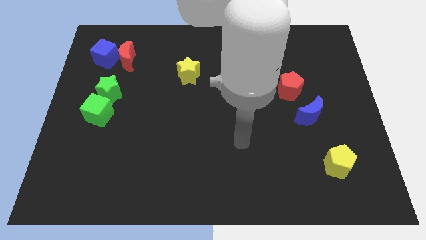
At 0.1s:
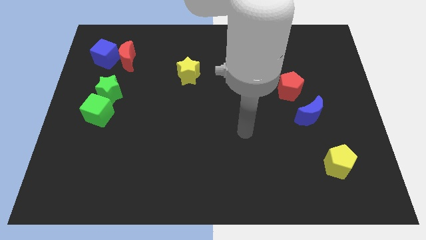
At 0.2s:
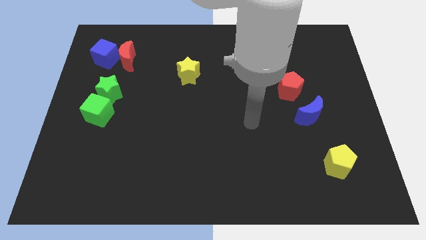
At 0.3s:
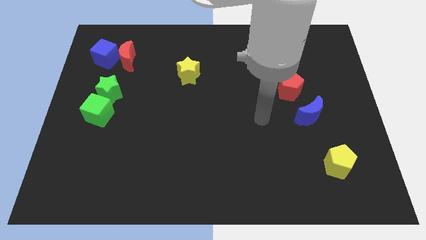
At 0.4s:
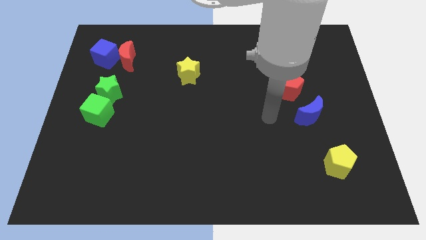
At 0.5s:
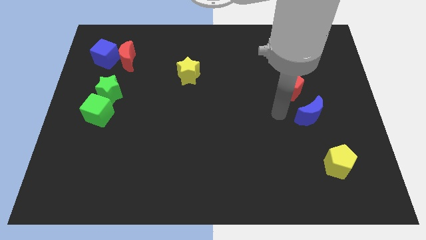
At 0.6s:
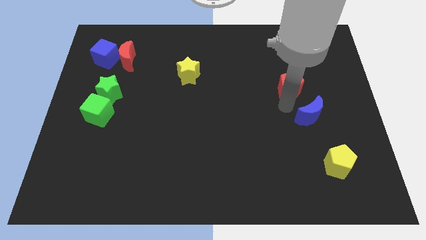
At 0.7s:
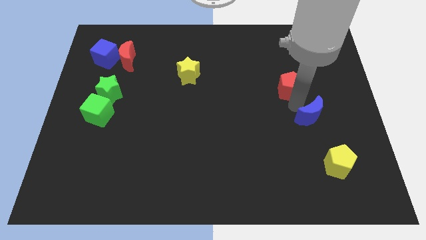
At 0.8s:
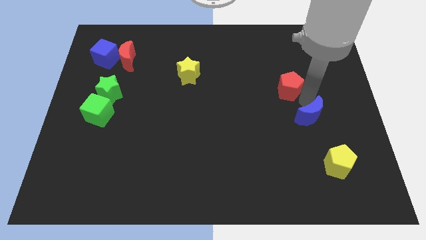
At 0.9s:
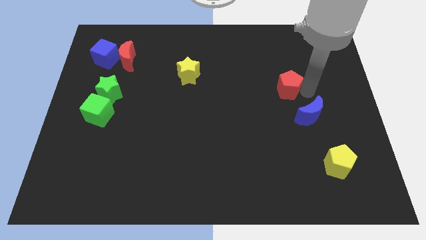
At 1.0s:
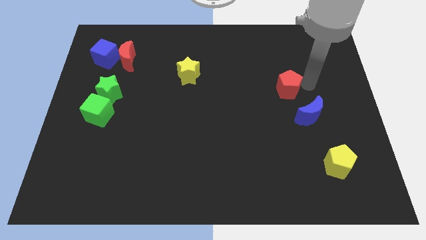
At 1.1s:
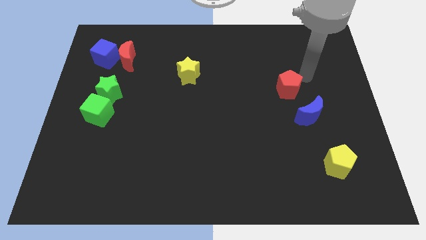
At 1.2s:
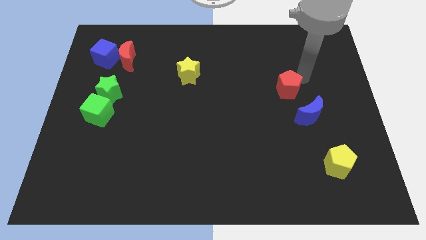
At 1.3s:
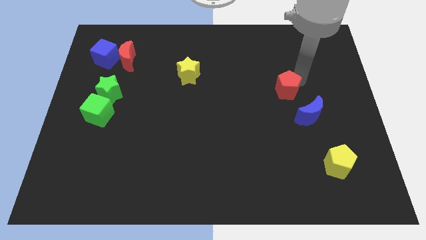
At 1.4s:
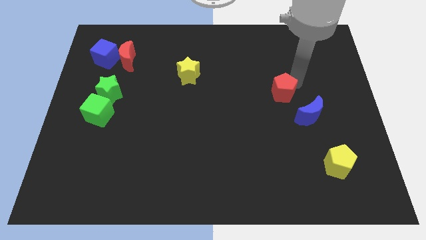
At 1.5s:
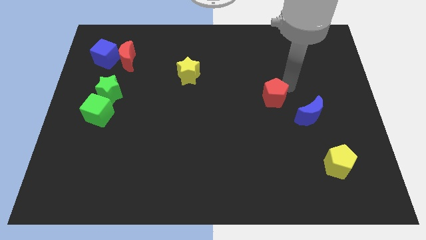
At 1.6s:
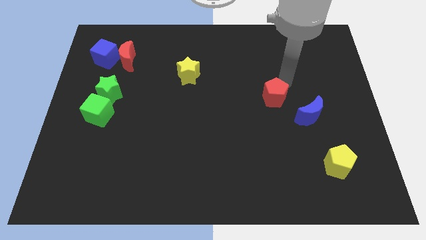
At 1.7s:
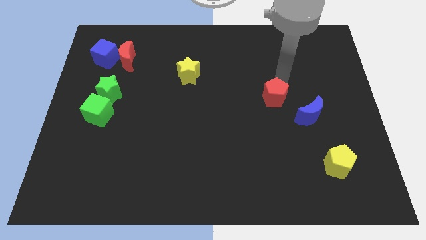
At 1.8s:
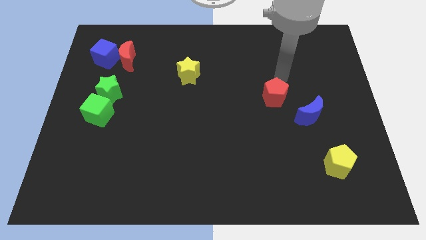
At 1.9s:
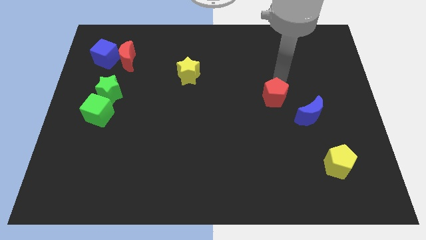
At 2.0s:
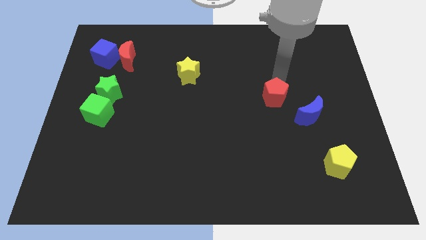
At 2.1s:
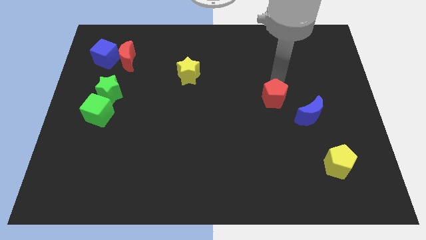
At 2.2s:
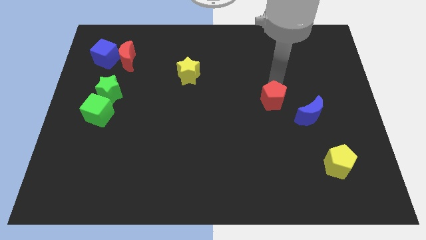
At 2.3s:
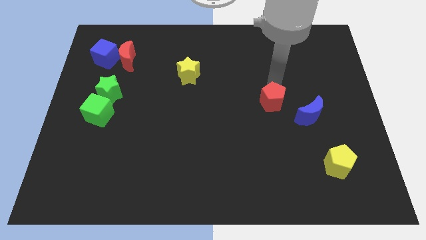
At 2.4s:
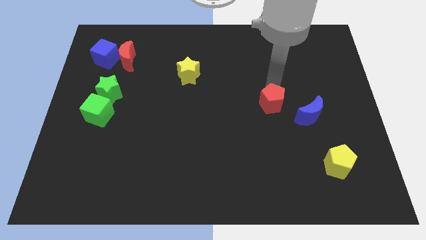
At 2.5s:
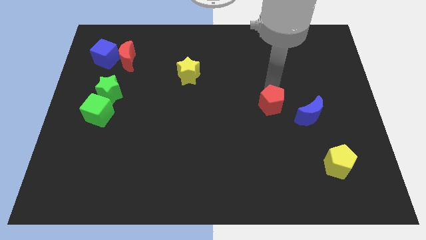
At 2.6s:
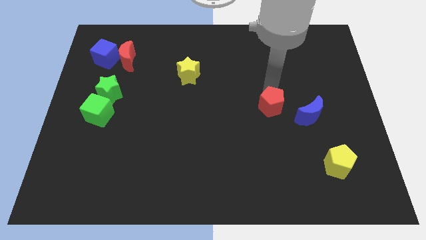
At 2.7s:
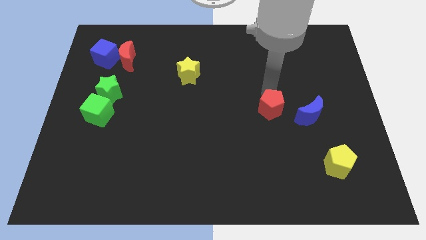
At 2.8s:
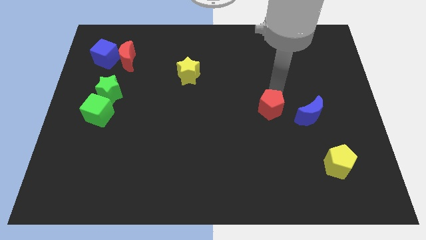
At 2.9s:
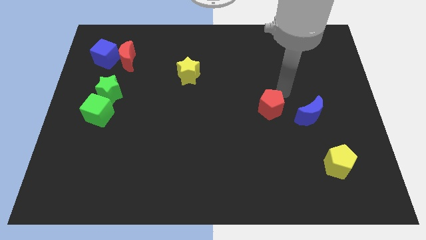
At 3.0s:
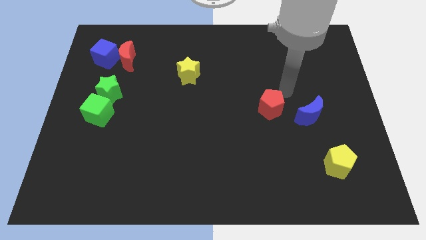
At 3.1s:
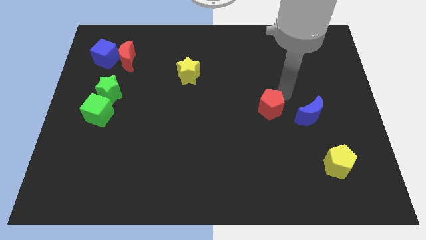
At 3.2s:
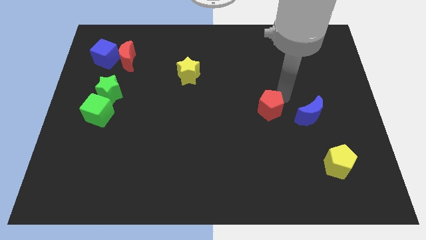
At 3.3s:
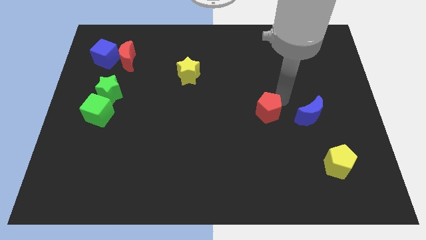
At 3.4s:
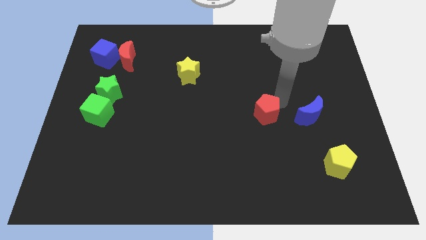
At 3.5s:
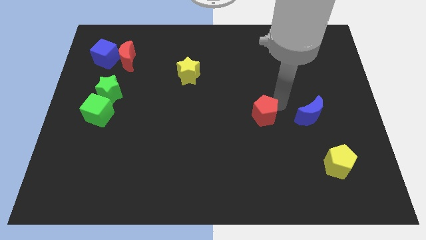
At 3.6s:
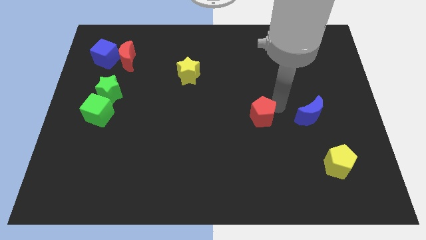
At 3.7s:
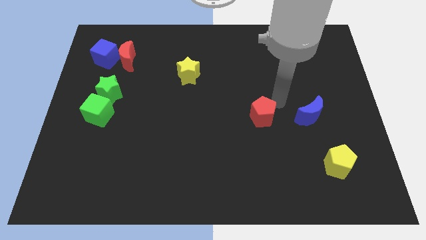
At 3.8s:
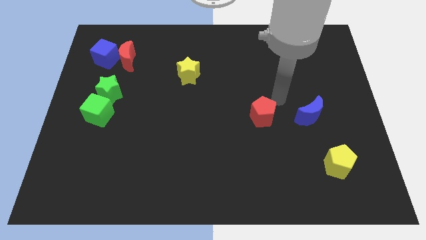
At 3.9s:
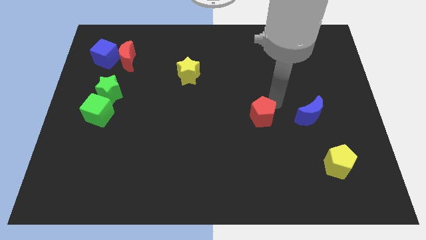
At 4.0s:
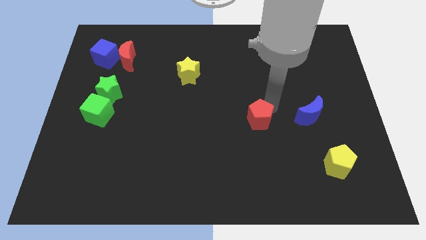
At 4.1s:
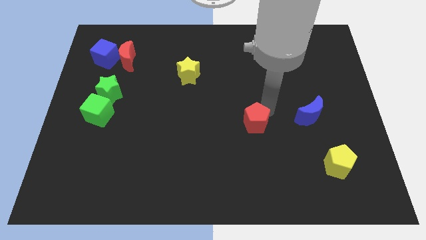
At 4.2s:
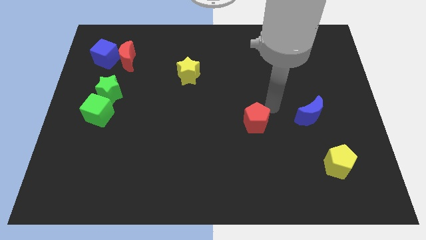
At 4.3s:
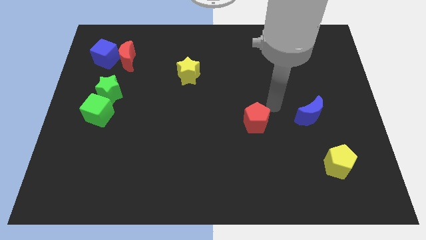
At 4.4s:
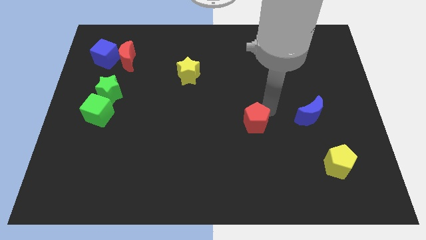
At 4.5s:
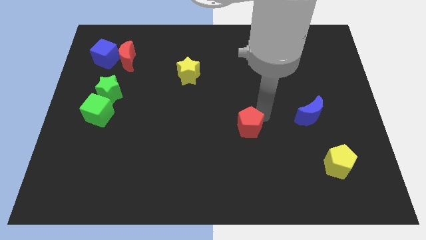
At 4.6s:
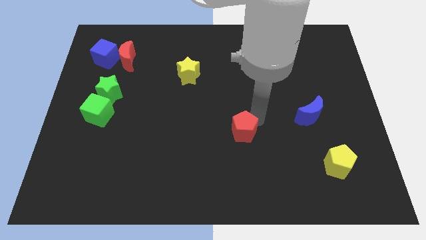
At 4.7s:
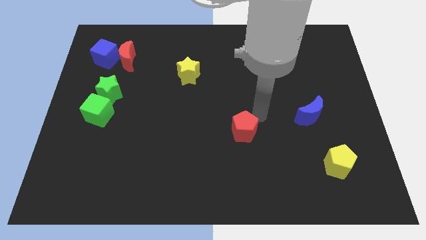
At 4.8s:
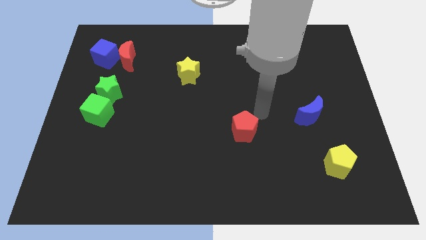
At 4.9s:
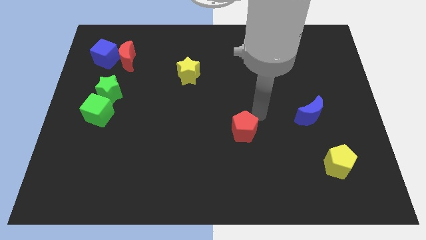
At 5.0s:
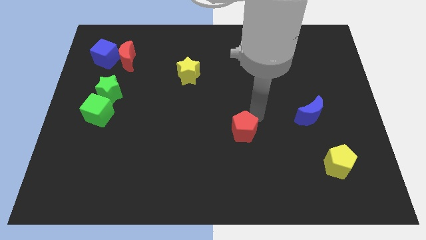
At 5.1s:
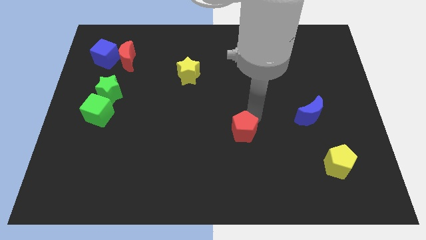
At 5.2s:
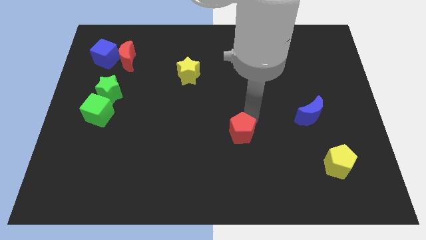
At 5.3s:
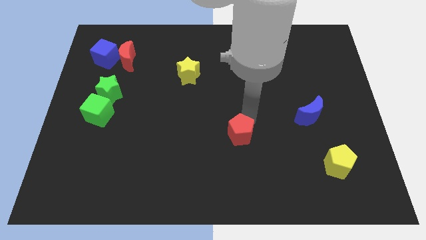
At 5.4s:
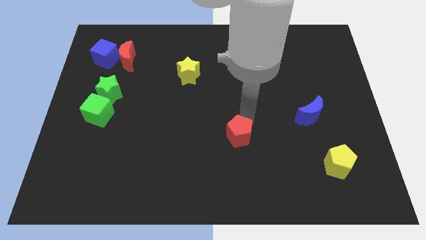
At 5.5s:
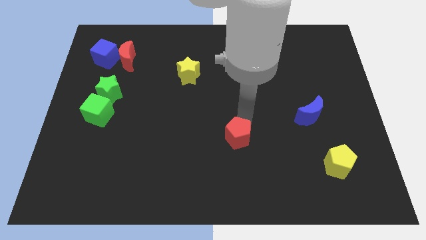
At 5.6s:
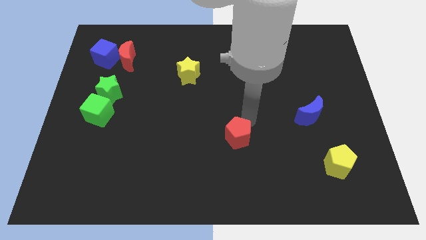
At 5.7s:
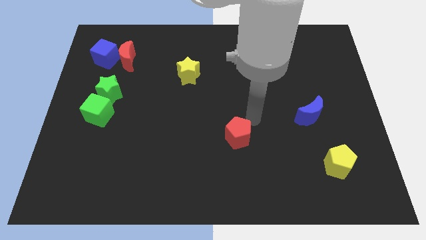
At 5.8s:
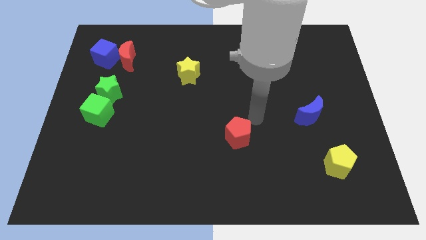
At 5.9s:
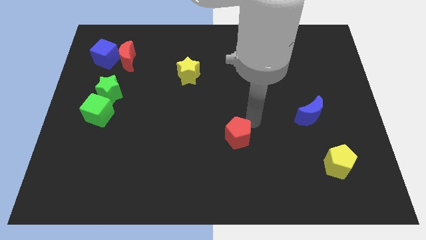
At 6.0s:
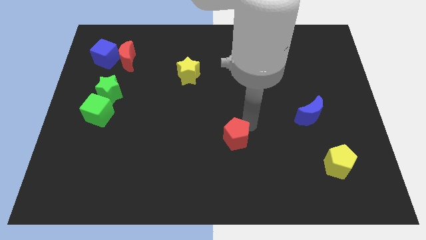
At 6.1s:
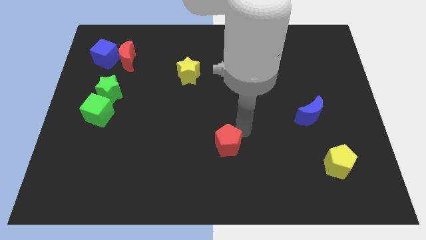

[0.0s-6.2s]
push the red pentagon down and to the left diagonally

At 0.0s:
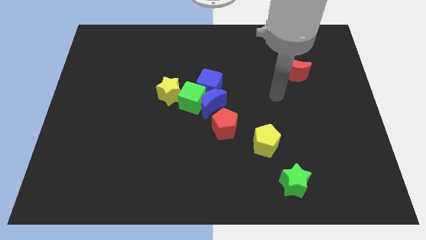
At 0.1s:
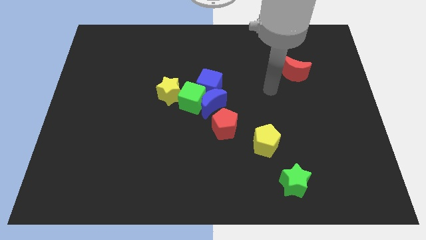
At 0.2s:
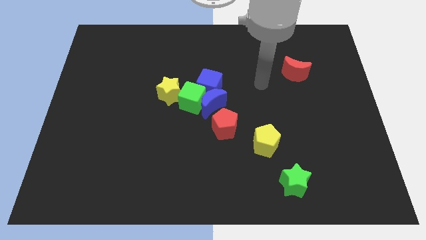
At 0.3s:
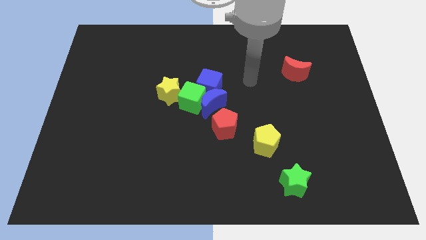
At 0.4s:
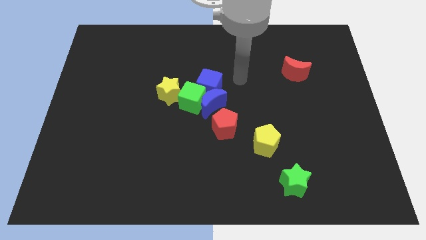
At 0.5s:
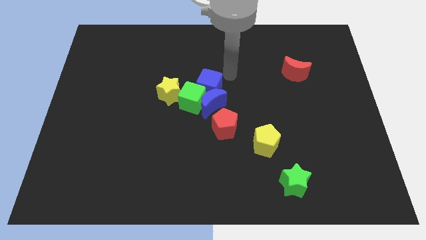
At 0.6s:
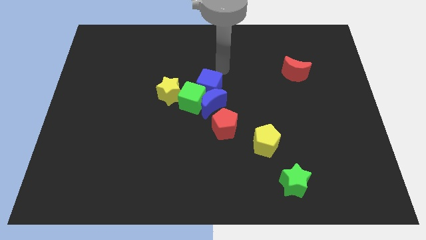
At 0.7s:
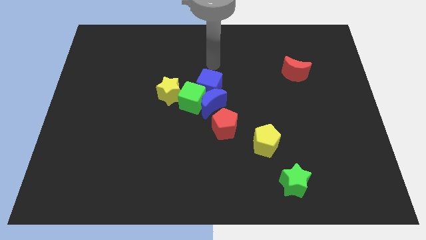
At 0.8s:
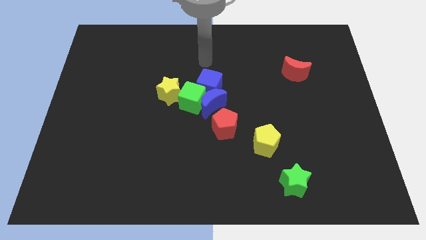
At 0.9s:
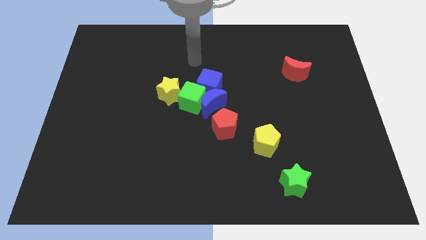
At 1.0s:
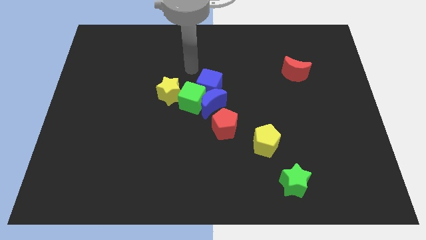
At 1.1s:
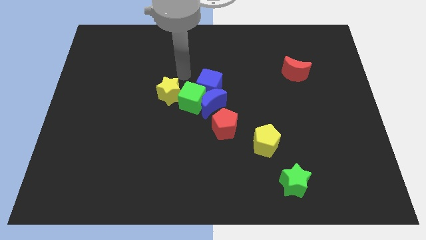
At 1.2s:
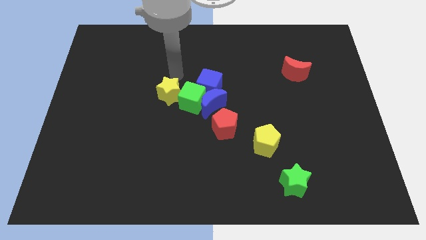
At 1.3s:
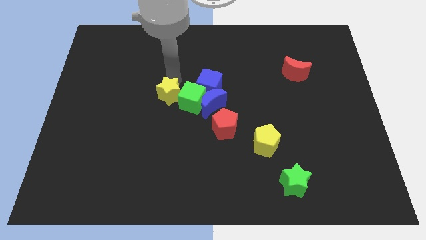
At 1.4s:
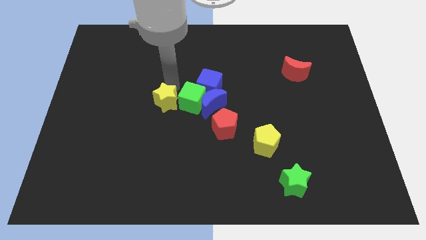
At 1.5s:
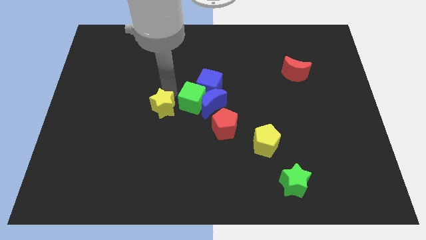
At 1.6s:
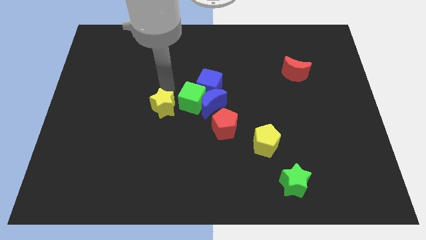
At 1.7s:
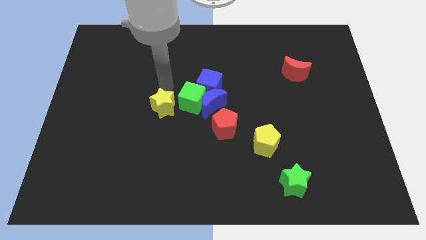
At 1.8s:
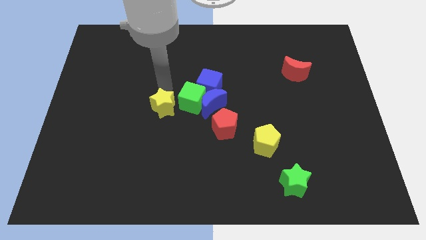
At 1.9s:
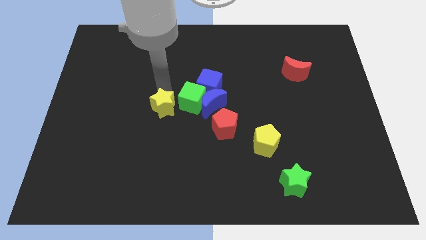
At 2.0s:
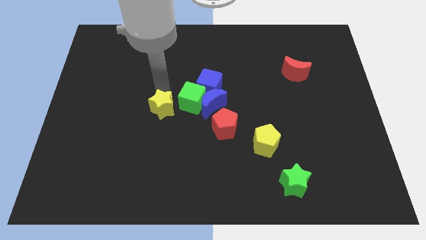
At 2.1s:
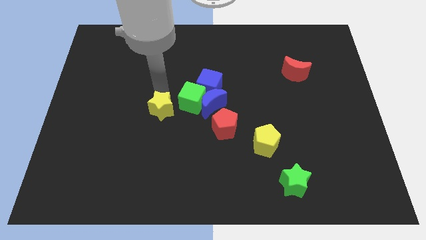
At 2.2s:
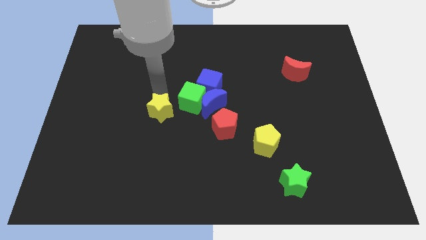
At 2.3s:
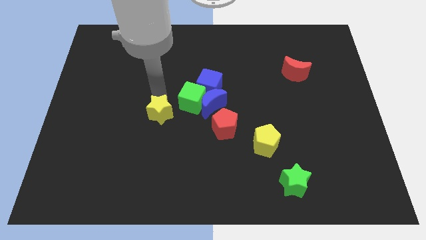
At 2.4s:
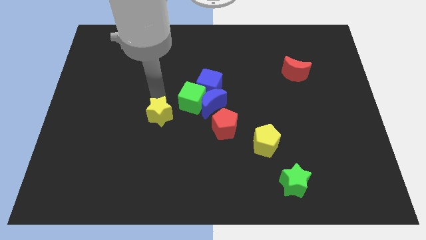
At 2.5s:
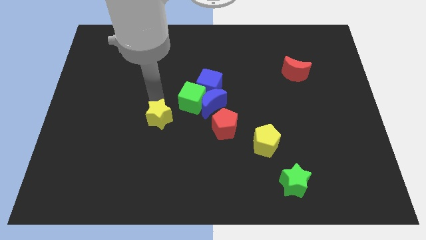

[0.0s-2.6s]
push the yellow star a little bit down
